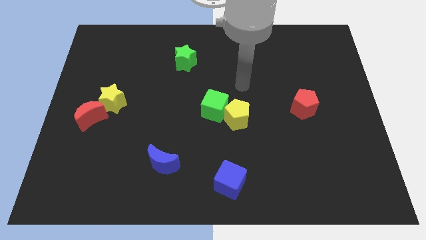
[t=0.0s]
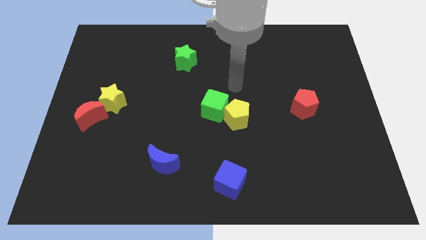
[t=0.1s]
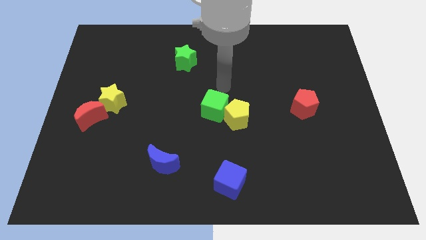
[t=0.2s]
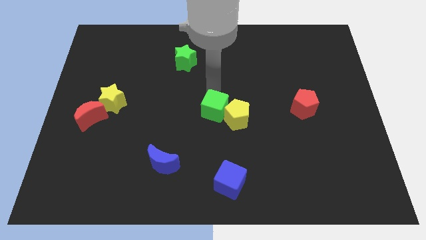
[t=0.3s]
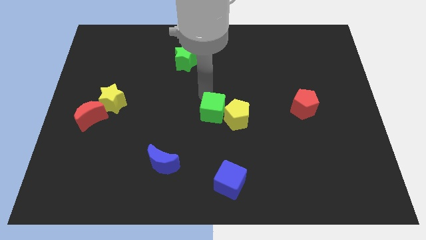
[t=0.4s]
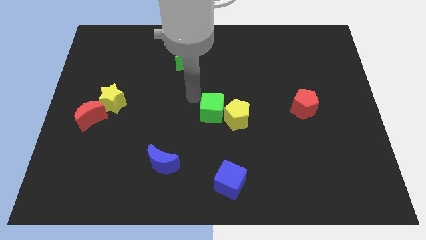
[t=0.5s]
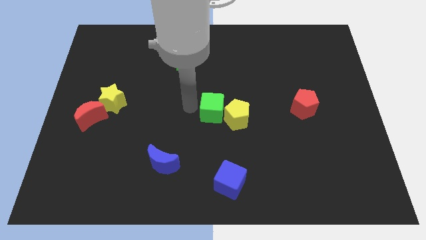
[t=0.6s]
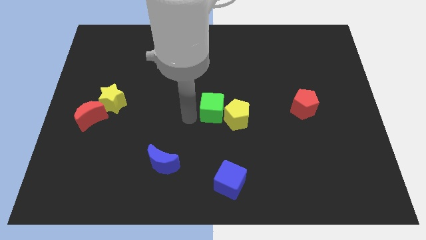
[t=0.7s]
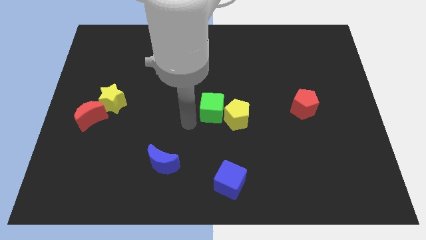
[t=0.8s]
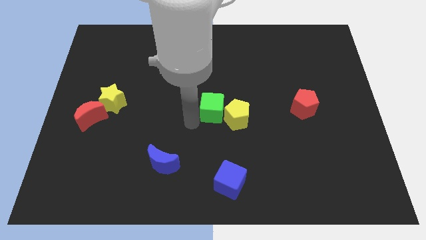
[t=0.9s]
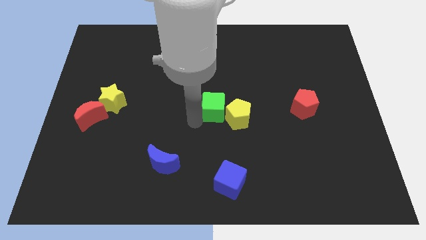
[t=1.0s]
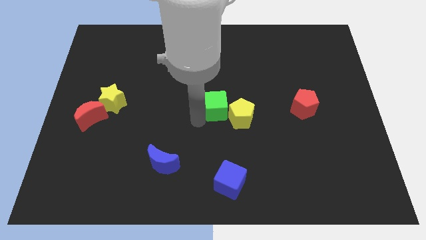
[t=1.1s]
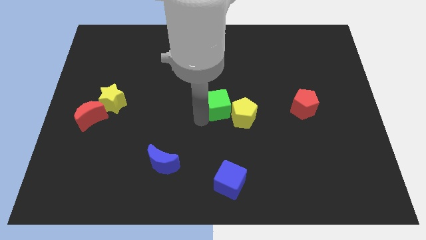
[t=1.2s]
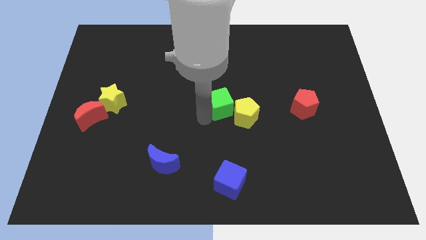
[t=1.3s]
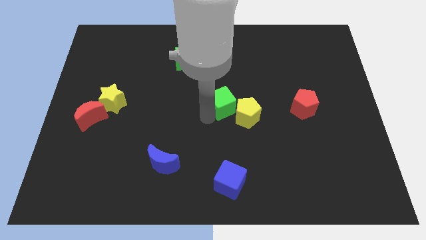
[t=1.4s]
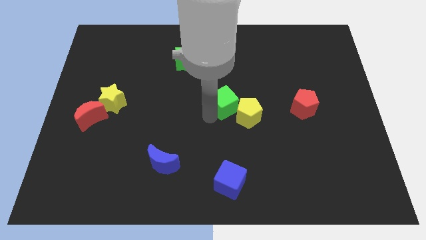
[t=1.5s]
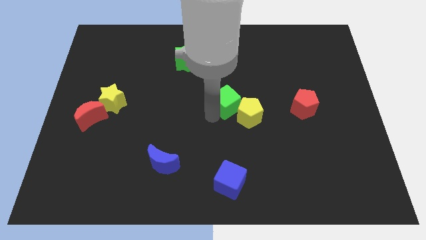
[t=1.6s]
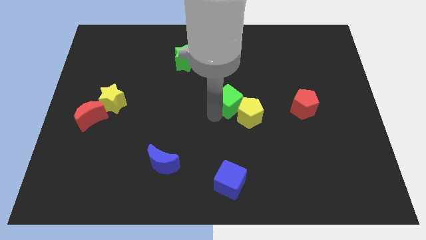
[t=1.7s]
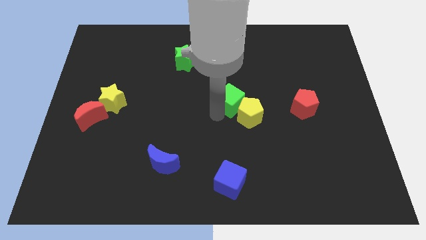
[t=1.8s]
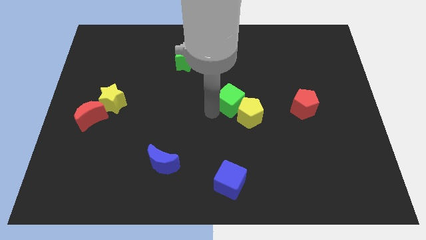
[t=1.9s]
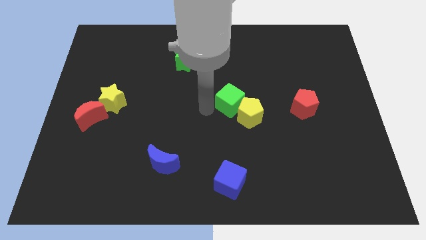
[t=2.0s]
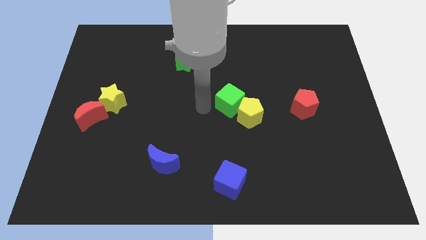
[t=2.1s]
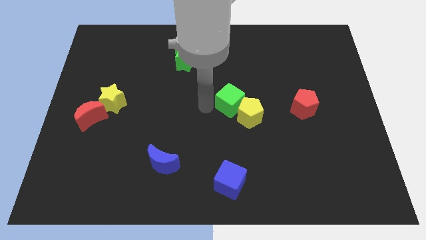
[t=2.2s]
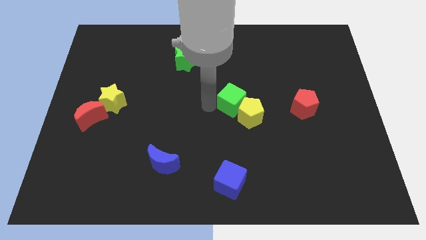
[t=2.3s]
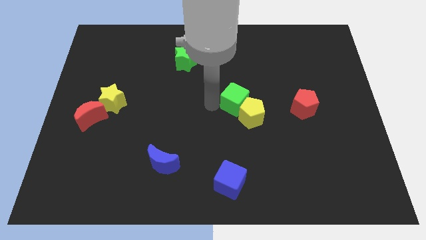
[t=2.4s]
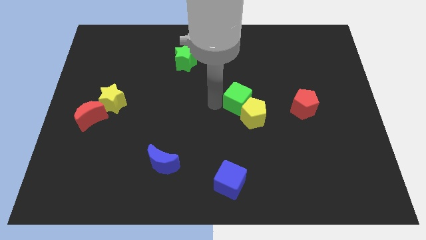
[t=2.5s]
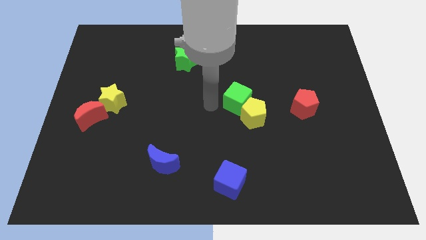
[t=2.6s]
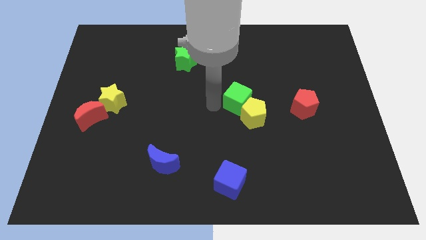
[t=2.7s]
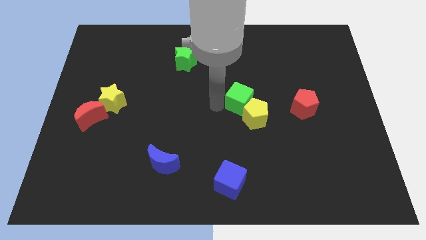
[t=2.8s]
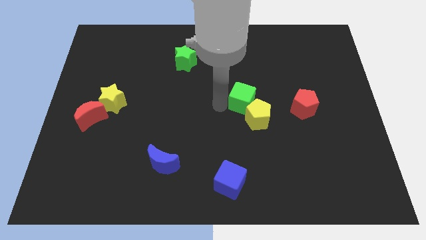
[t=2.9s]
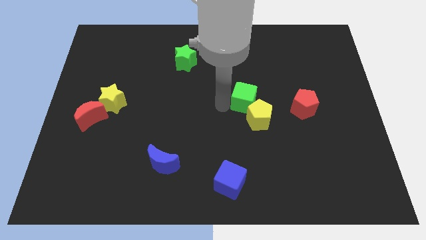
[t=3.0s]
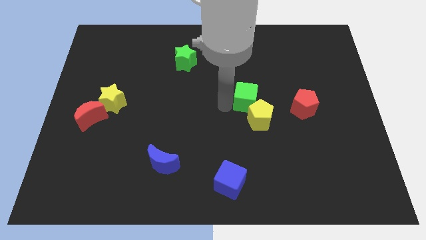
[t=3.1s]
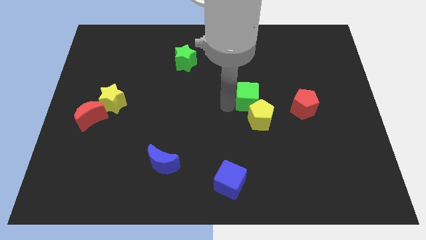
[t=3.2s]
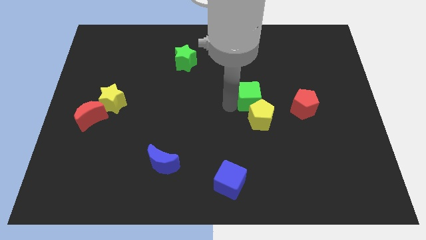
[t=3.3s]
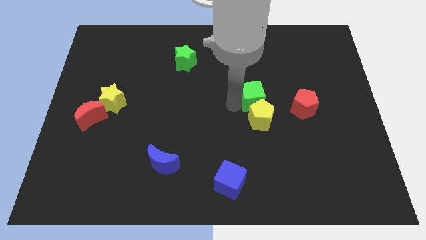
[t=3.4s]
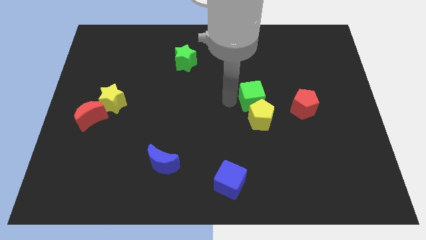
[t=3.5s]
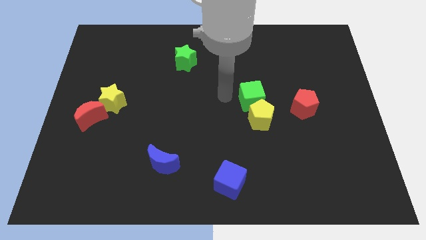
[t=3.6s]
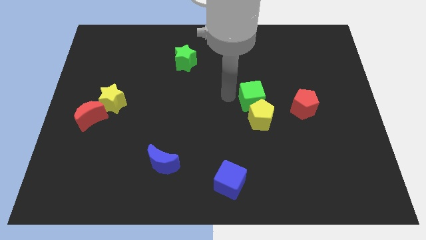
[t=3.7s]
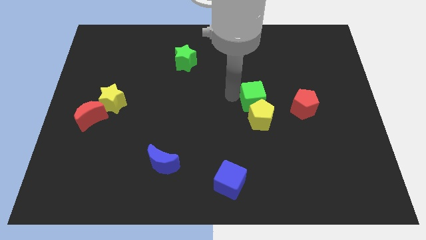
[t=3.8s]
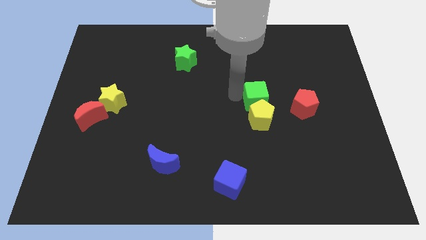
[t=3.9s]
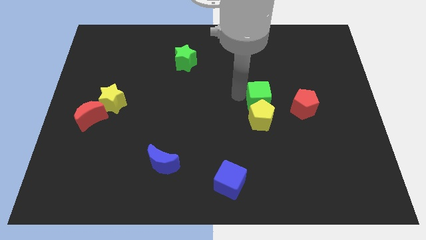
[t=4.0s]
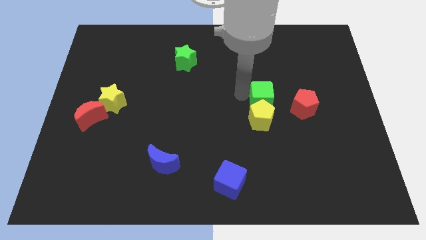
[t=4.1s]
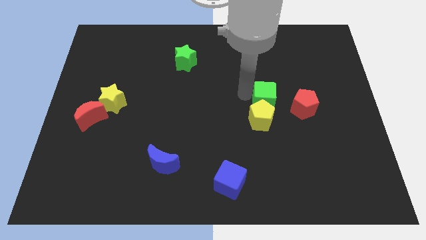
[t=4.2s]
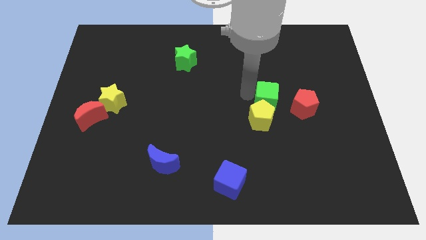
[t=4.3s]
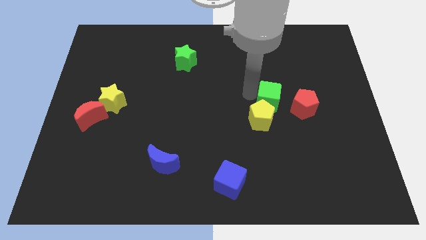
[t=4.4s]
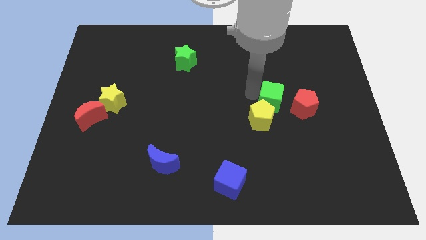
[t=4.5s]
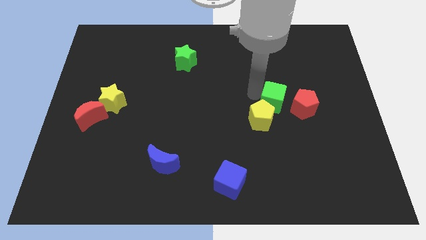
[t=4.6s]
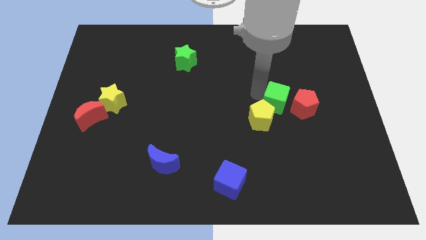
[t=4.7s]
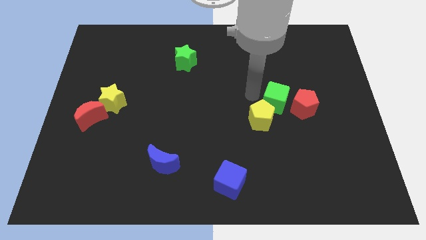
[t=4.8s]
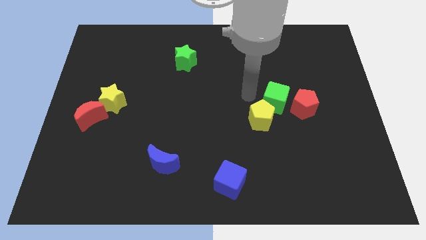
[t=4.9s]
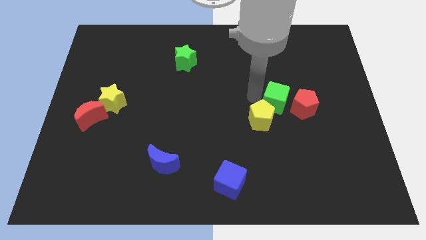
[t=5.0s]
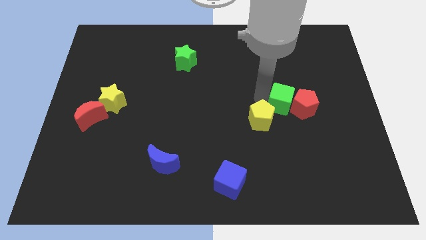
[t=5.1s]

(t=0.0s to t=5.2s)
put the green cube close to the red pentagon

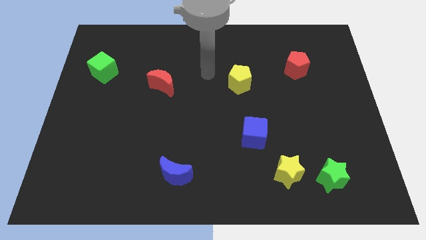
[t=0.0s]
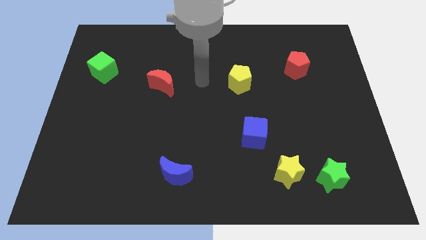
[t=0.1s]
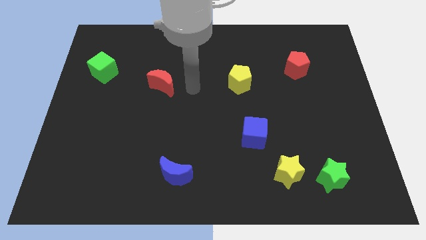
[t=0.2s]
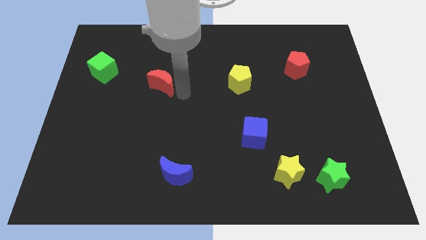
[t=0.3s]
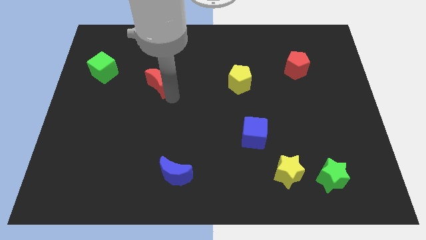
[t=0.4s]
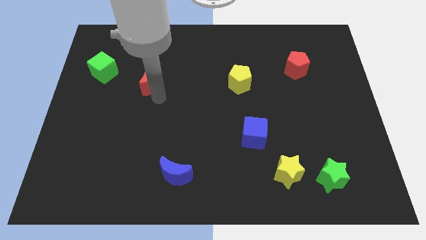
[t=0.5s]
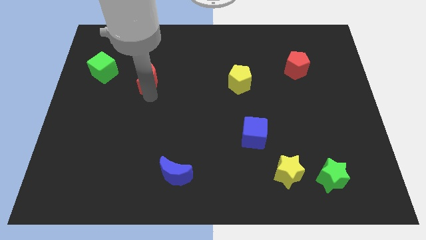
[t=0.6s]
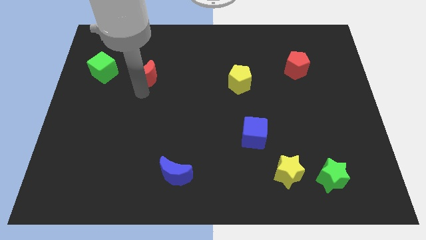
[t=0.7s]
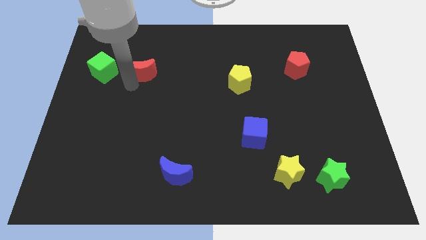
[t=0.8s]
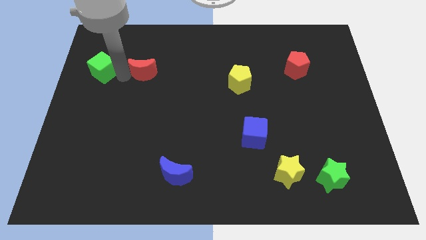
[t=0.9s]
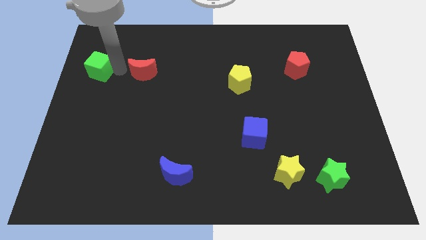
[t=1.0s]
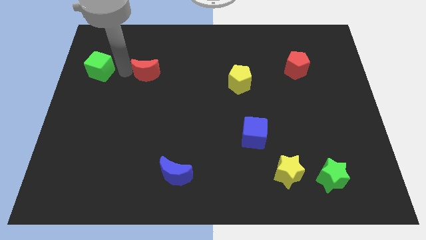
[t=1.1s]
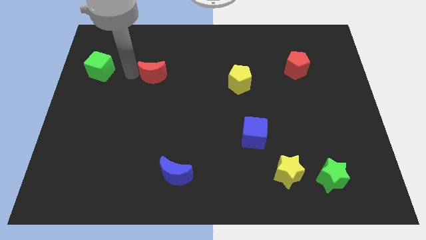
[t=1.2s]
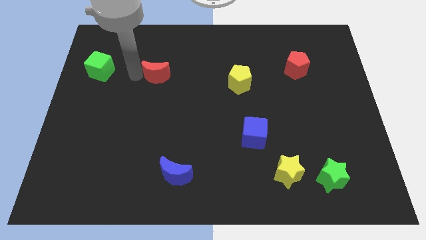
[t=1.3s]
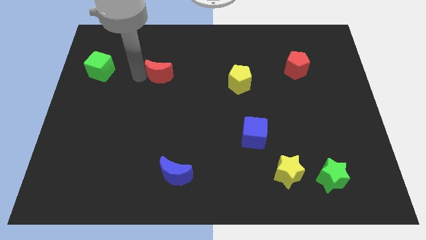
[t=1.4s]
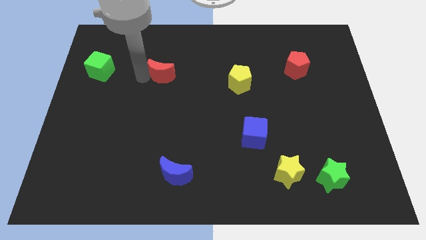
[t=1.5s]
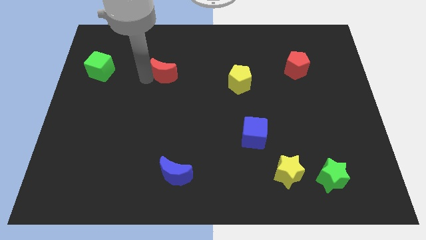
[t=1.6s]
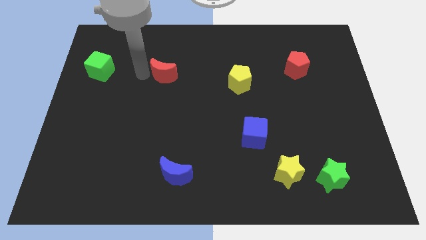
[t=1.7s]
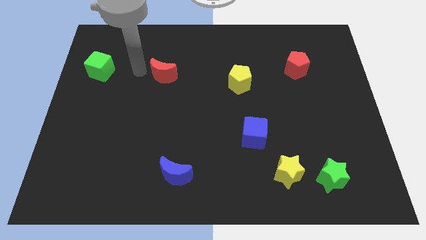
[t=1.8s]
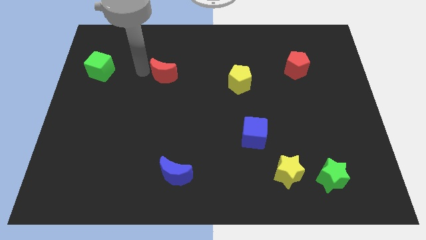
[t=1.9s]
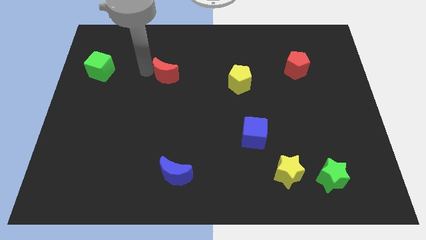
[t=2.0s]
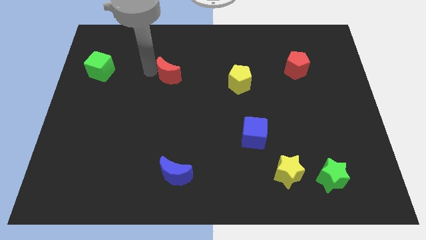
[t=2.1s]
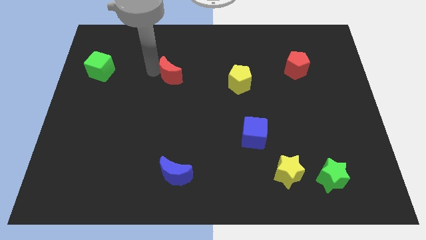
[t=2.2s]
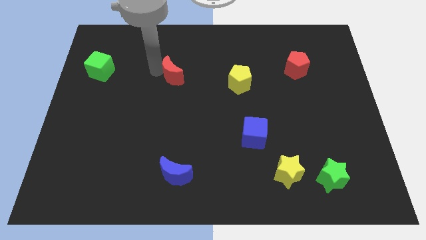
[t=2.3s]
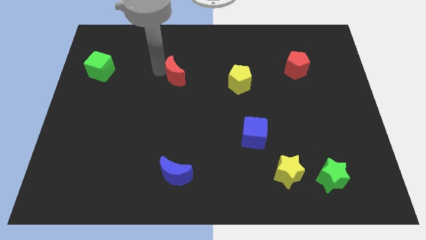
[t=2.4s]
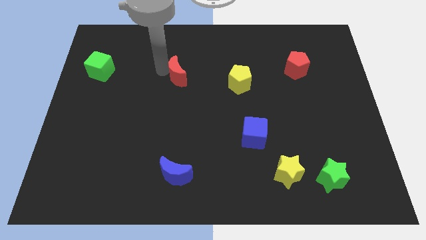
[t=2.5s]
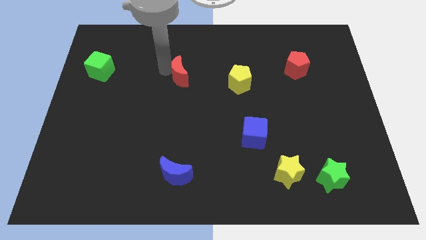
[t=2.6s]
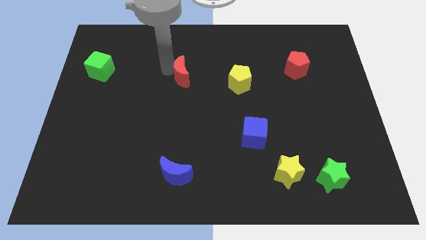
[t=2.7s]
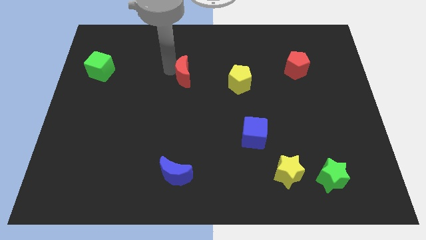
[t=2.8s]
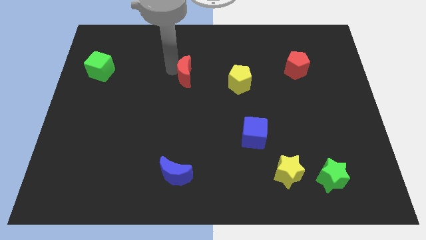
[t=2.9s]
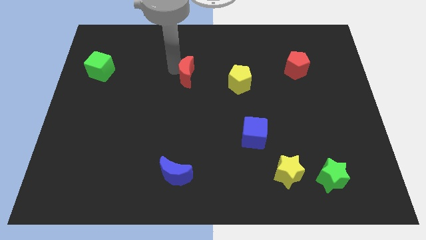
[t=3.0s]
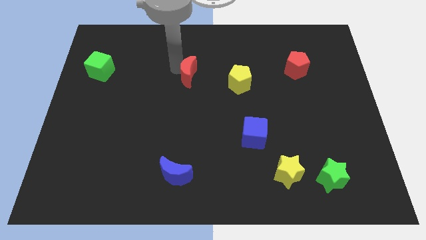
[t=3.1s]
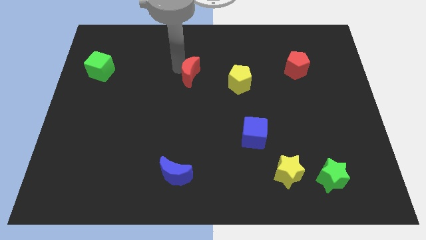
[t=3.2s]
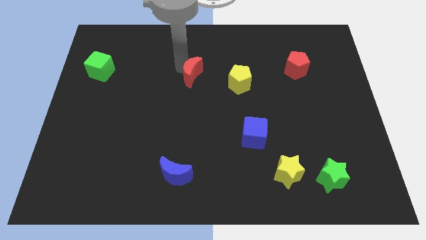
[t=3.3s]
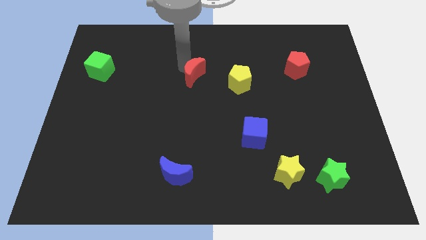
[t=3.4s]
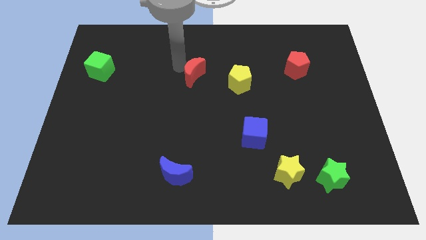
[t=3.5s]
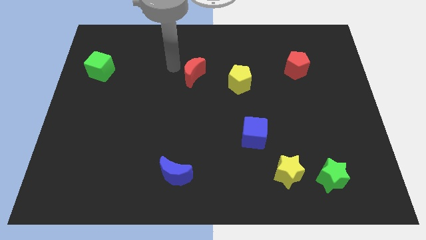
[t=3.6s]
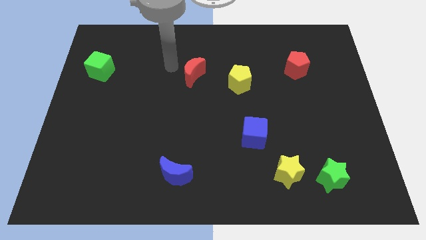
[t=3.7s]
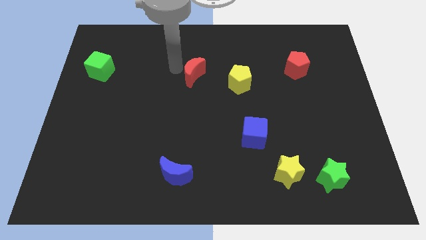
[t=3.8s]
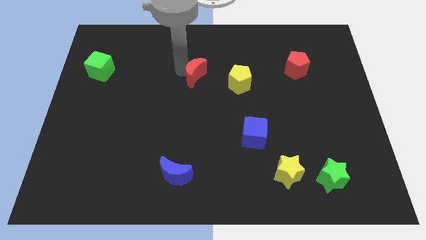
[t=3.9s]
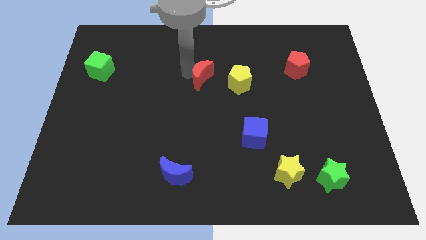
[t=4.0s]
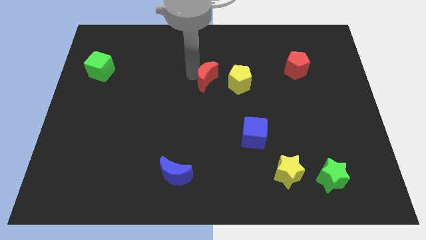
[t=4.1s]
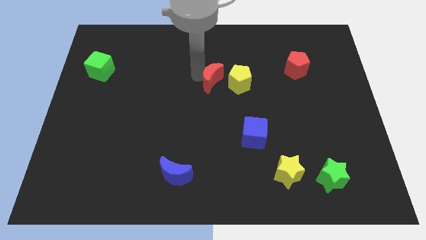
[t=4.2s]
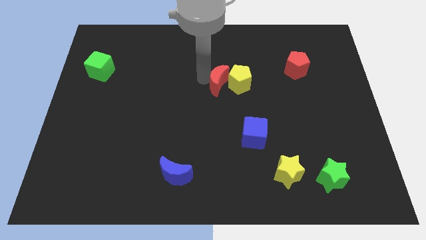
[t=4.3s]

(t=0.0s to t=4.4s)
put the red moon next to the yellow pentagon
